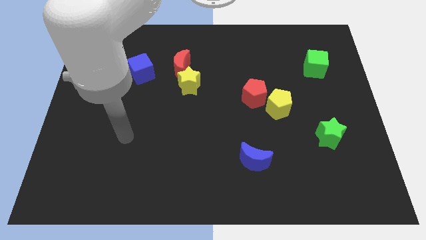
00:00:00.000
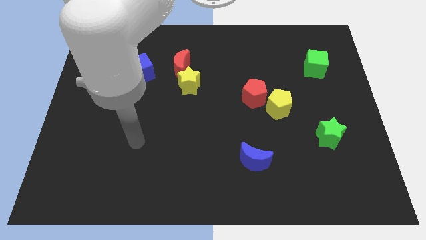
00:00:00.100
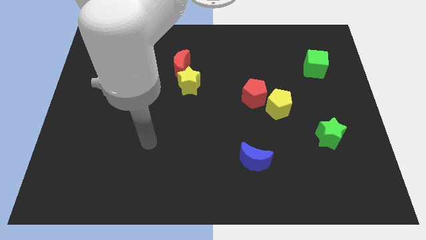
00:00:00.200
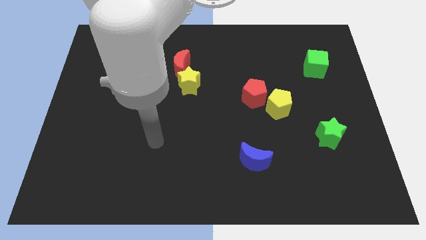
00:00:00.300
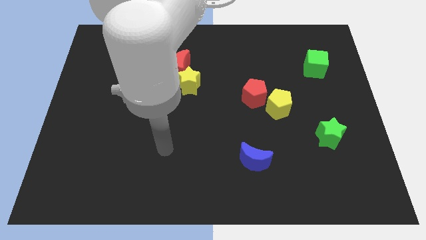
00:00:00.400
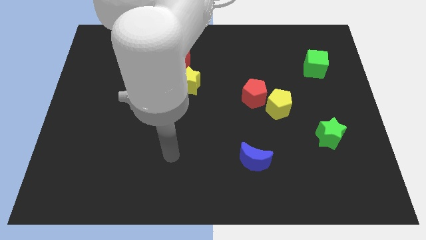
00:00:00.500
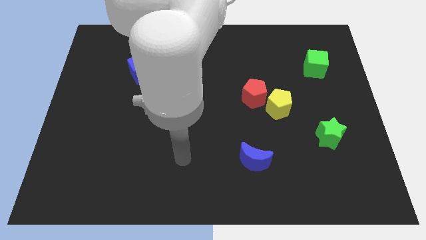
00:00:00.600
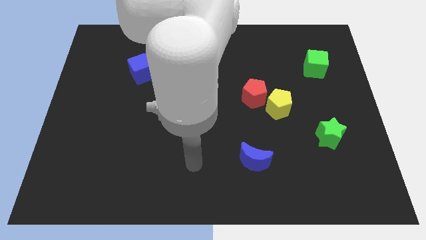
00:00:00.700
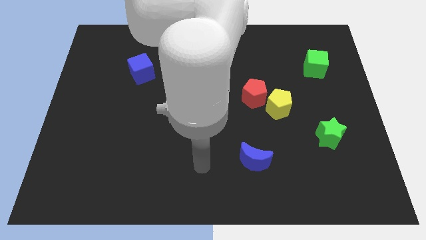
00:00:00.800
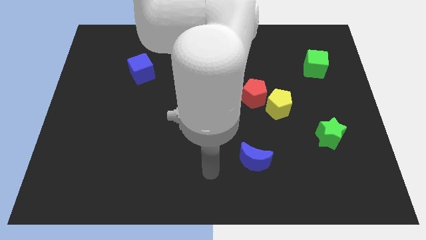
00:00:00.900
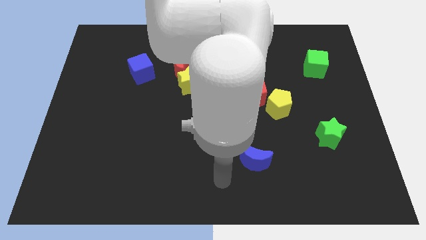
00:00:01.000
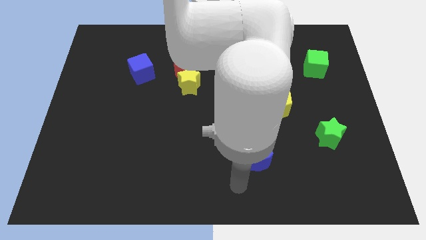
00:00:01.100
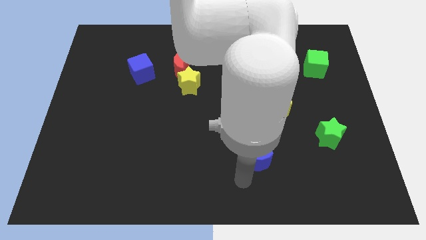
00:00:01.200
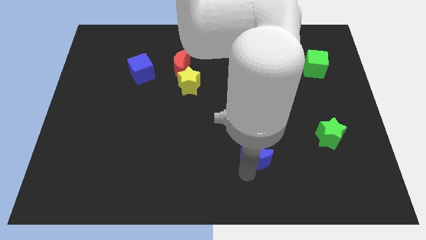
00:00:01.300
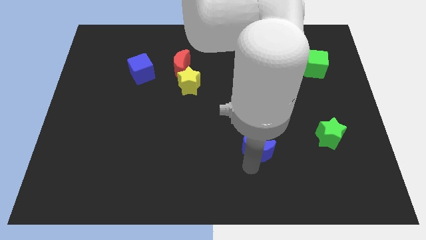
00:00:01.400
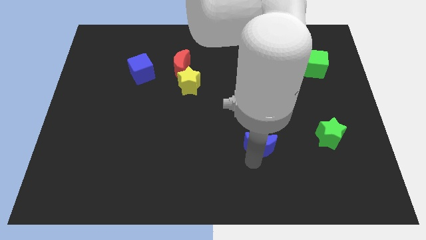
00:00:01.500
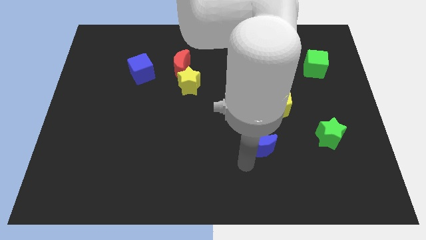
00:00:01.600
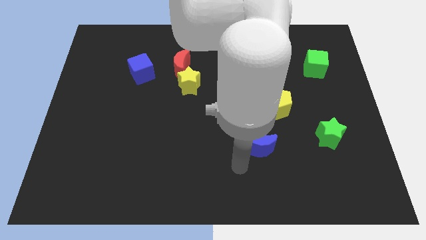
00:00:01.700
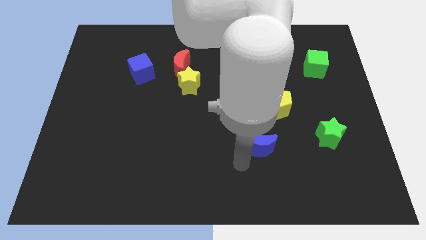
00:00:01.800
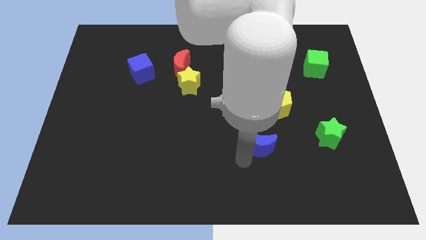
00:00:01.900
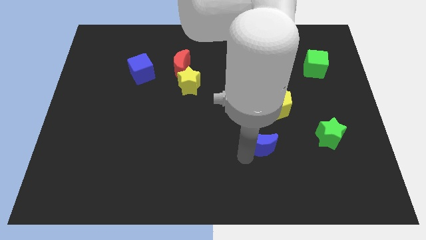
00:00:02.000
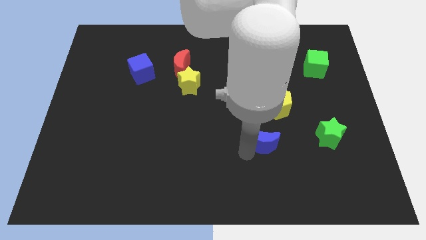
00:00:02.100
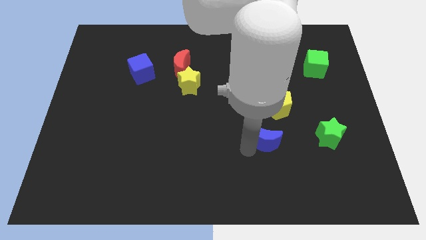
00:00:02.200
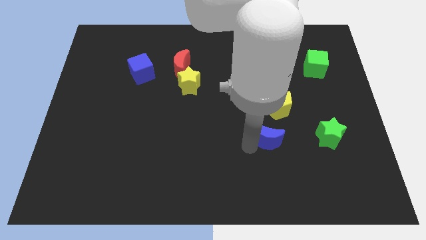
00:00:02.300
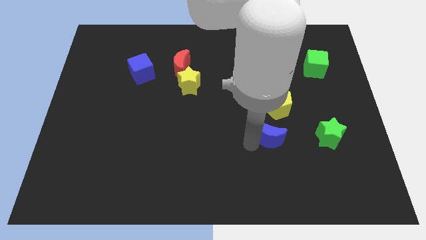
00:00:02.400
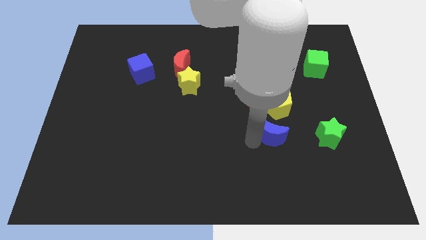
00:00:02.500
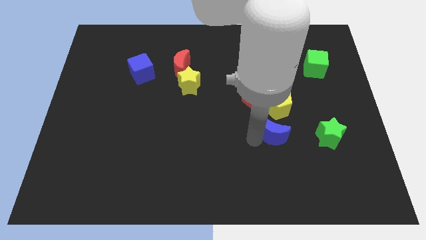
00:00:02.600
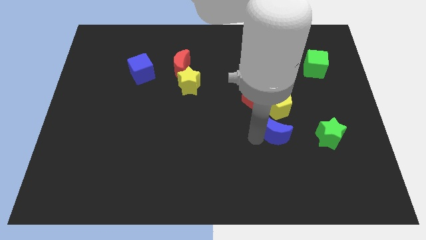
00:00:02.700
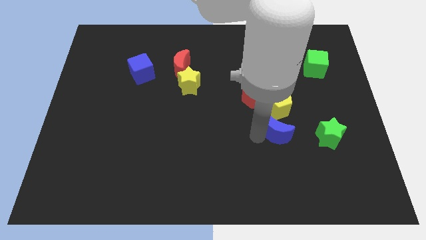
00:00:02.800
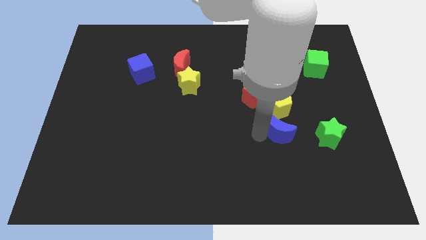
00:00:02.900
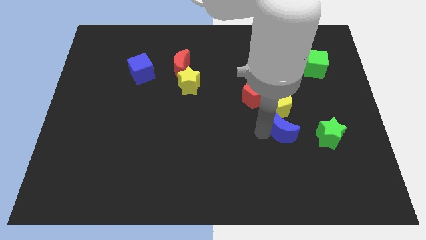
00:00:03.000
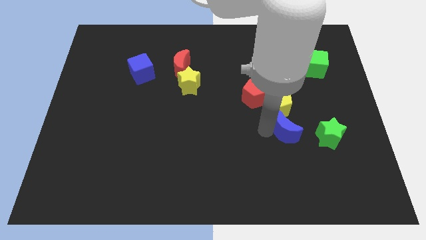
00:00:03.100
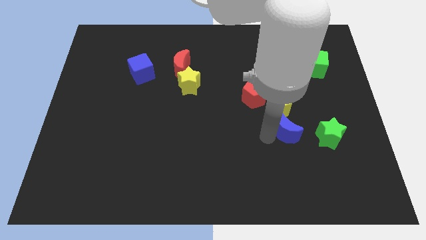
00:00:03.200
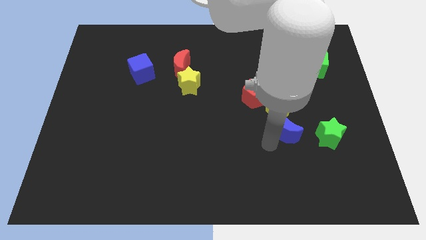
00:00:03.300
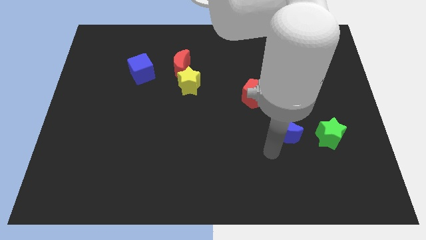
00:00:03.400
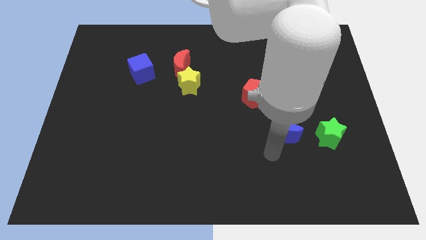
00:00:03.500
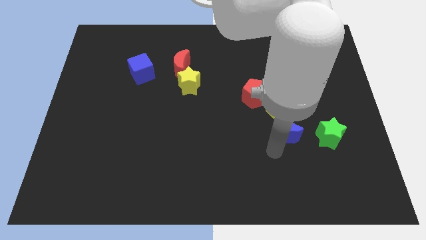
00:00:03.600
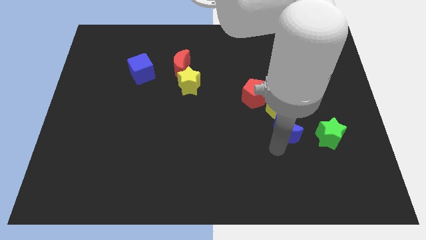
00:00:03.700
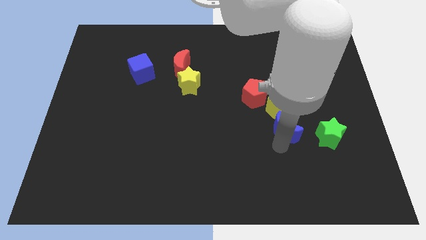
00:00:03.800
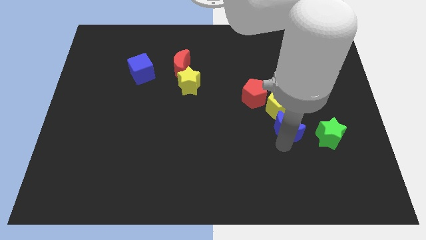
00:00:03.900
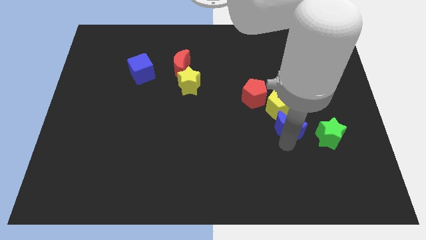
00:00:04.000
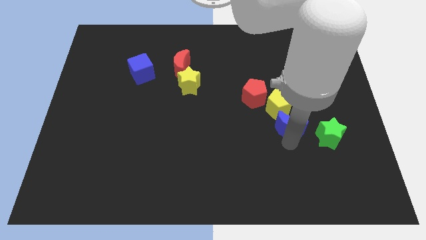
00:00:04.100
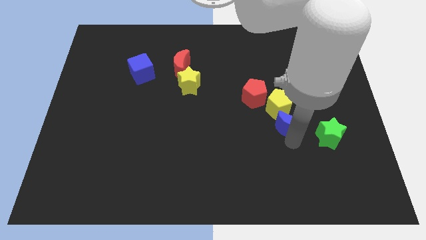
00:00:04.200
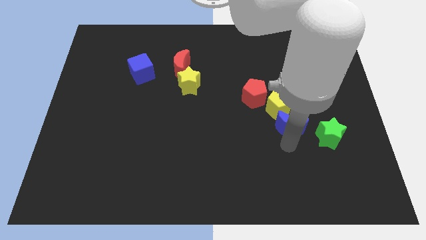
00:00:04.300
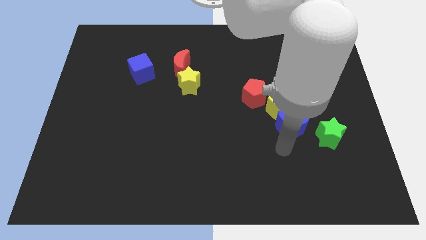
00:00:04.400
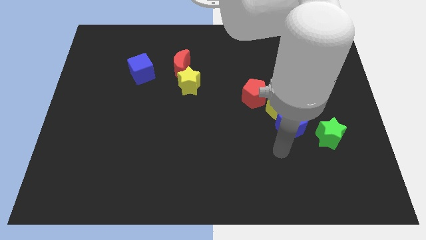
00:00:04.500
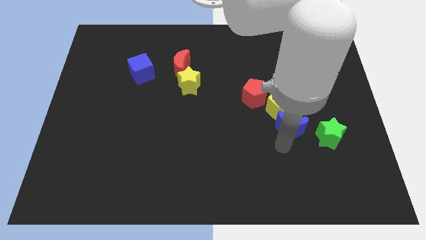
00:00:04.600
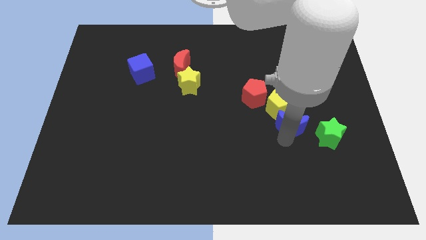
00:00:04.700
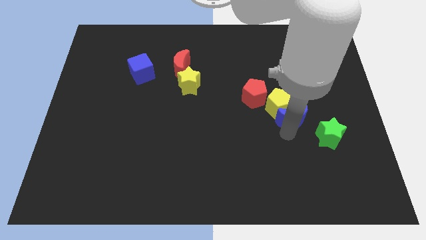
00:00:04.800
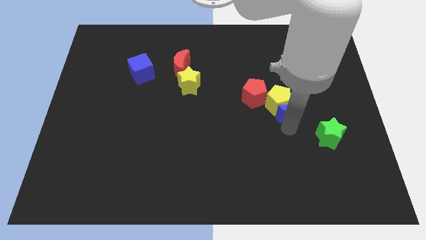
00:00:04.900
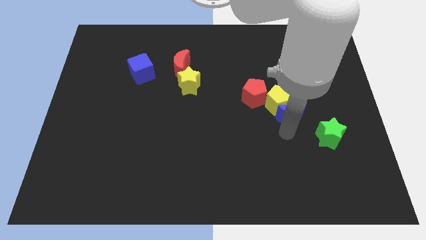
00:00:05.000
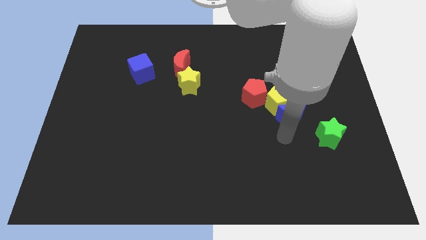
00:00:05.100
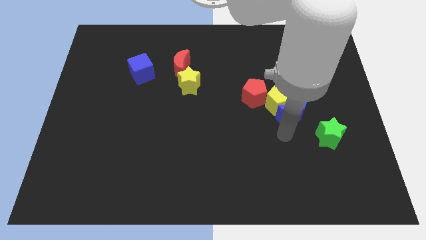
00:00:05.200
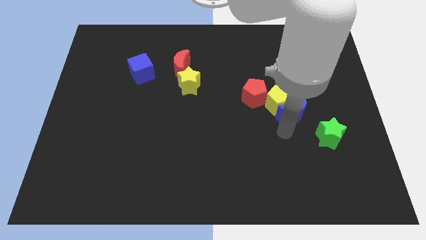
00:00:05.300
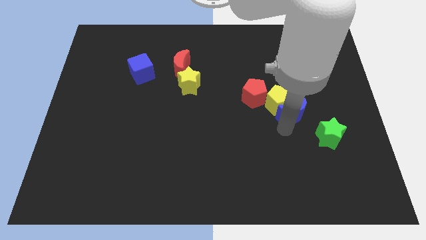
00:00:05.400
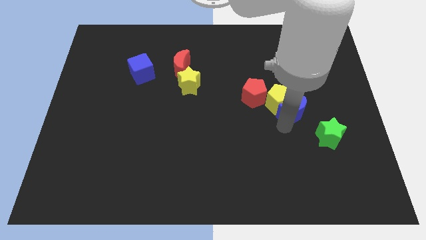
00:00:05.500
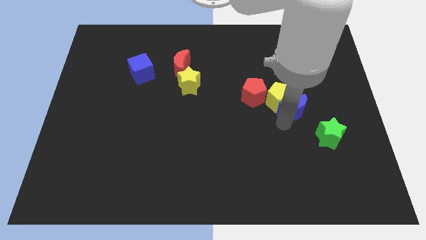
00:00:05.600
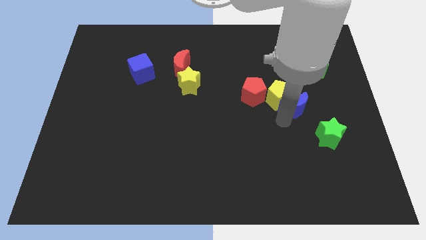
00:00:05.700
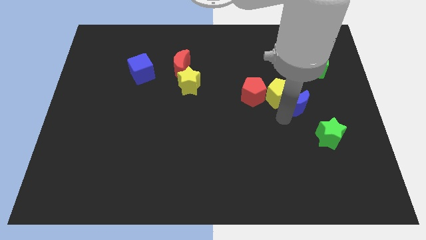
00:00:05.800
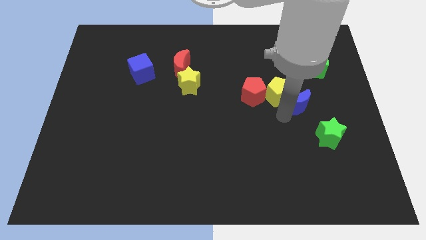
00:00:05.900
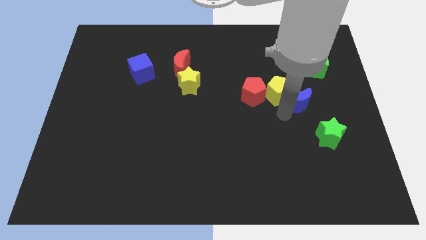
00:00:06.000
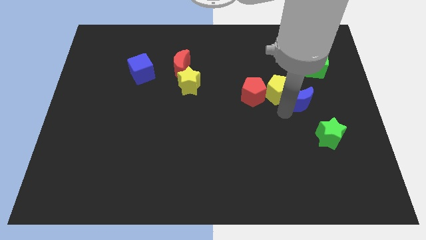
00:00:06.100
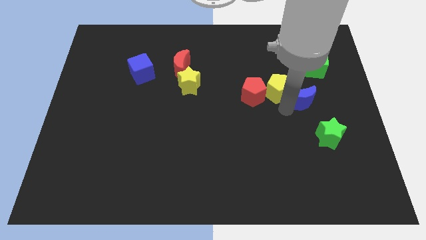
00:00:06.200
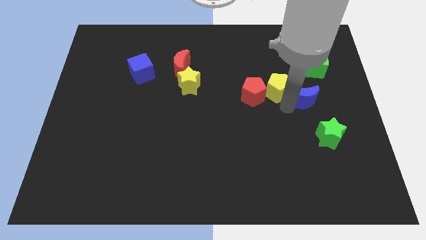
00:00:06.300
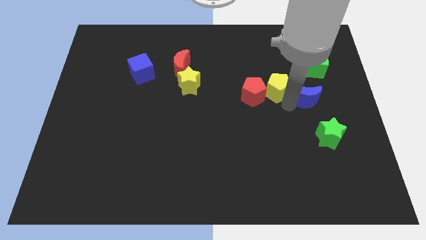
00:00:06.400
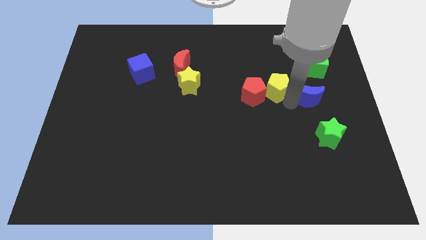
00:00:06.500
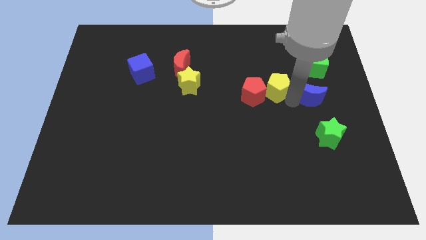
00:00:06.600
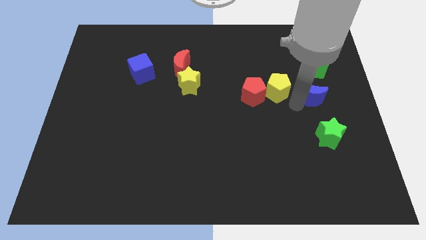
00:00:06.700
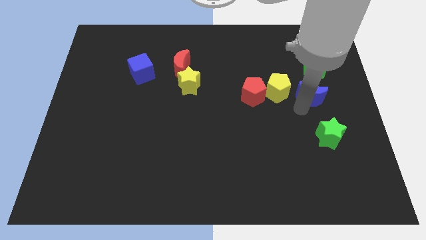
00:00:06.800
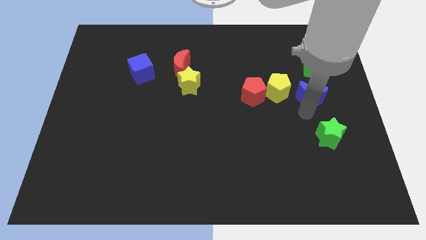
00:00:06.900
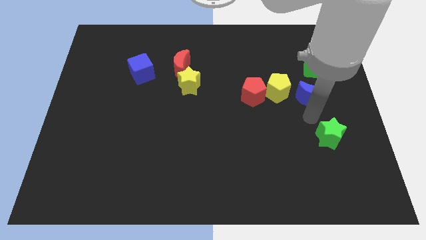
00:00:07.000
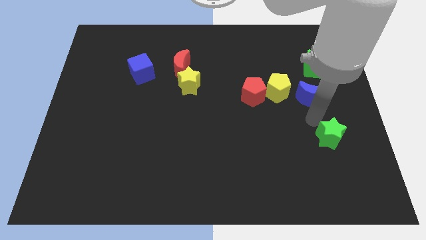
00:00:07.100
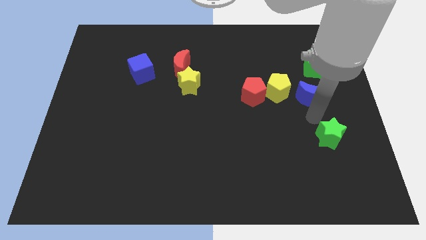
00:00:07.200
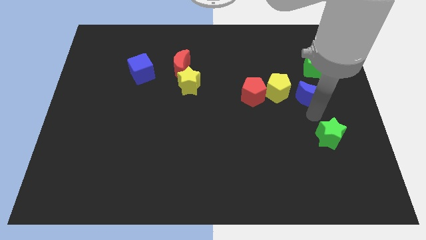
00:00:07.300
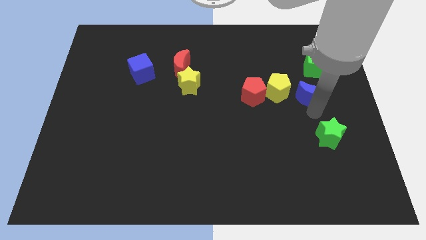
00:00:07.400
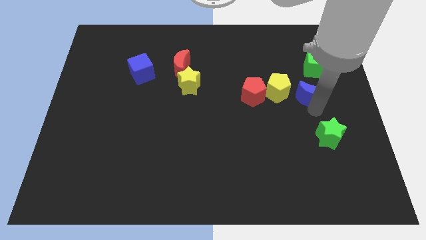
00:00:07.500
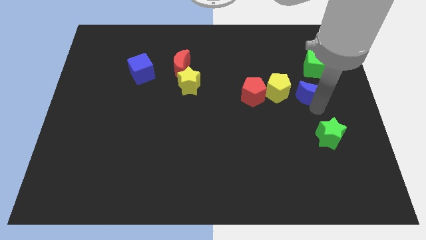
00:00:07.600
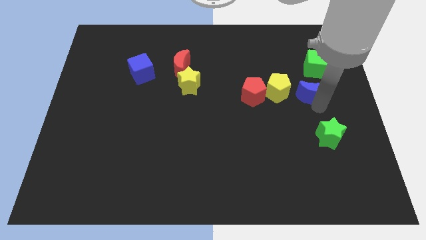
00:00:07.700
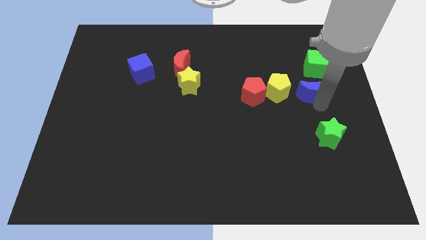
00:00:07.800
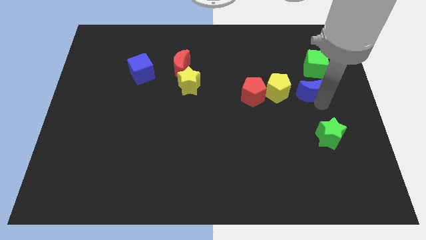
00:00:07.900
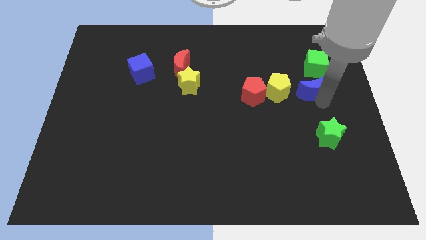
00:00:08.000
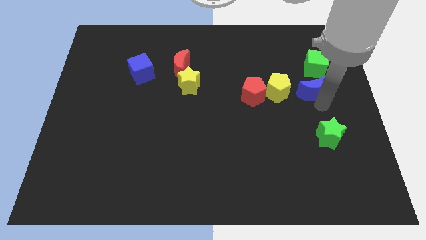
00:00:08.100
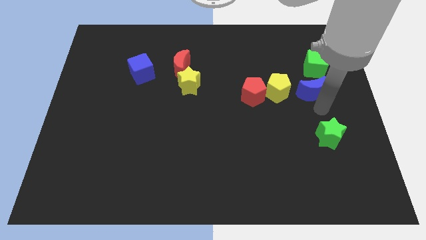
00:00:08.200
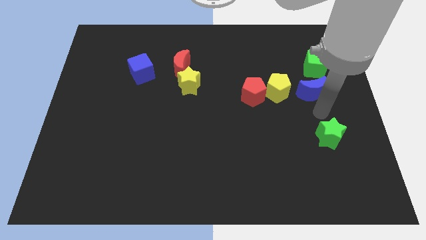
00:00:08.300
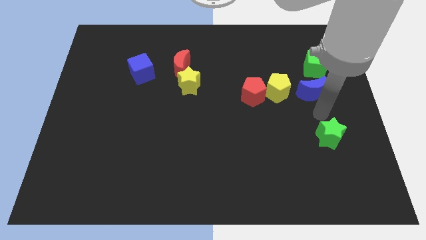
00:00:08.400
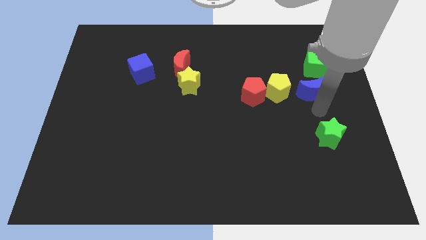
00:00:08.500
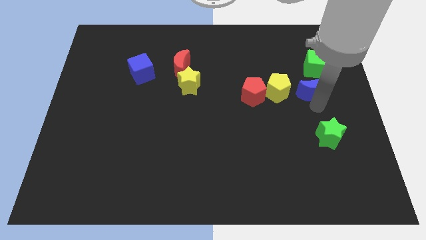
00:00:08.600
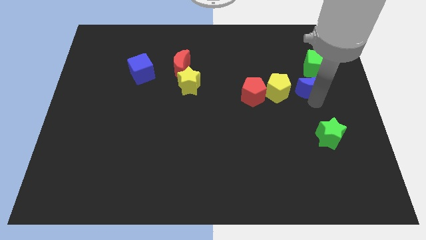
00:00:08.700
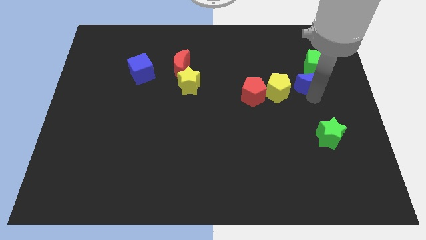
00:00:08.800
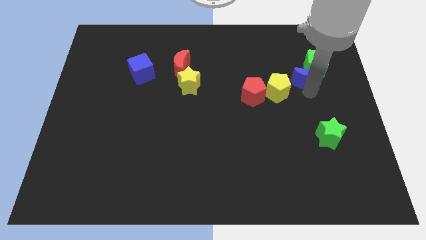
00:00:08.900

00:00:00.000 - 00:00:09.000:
move the blue moon next to the green cube
